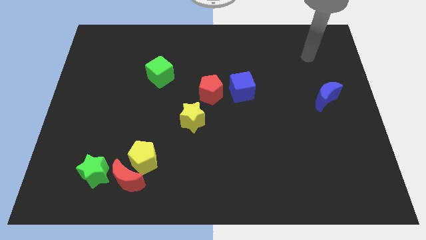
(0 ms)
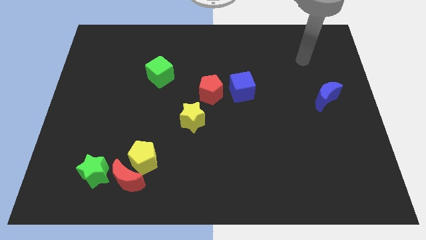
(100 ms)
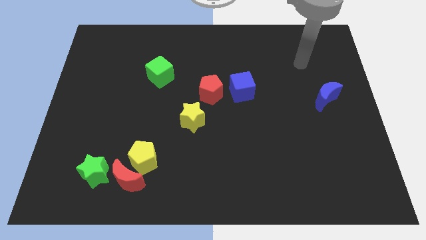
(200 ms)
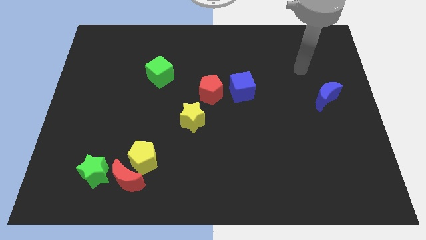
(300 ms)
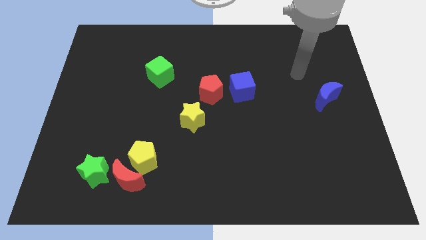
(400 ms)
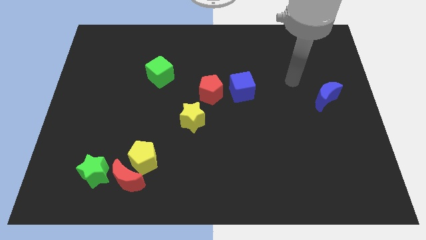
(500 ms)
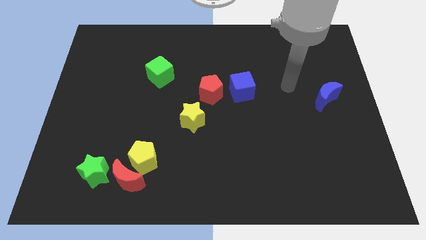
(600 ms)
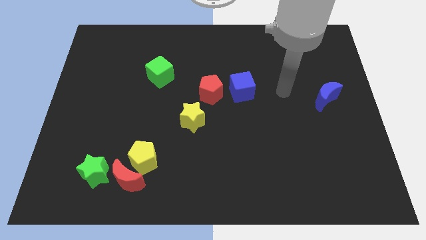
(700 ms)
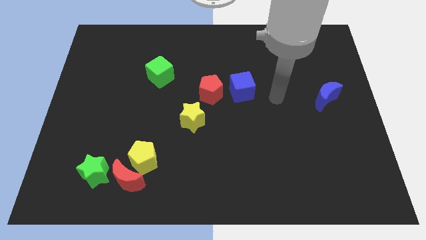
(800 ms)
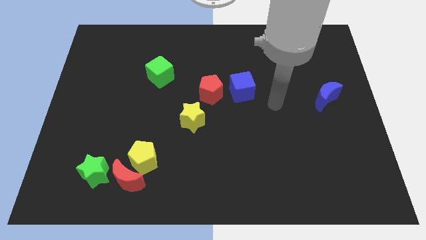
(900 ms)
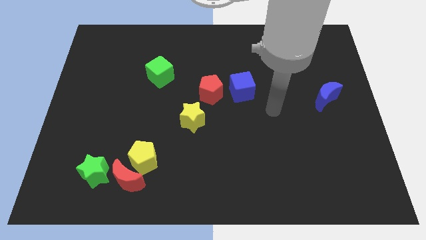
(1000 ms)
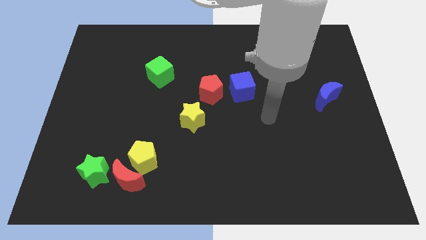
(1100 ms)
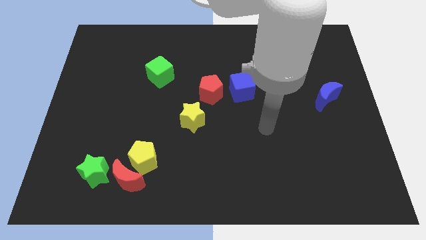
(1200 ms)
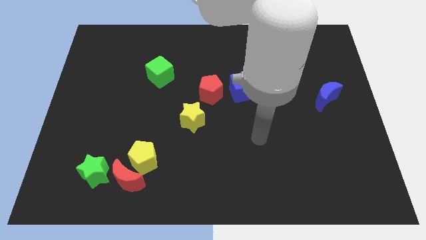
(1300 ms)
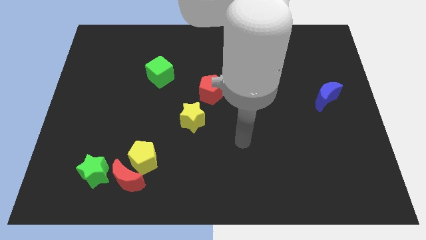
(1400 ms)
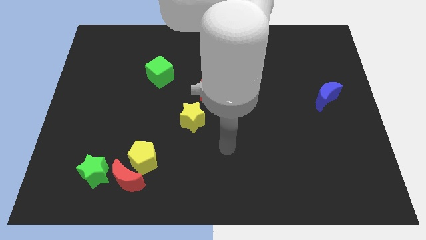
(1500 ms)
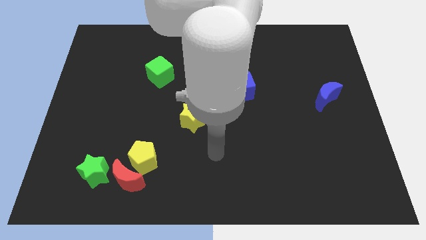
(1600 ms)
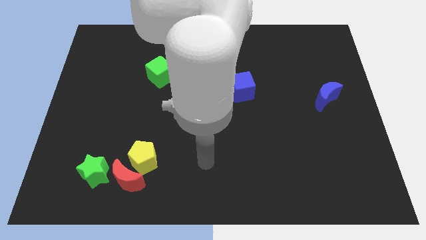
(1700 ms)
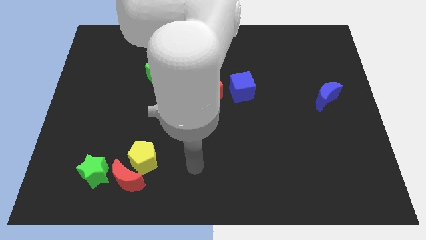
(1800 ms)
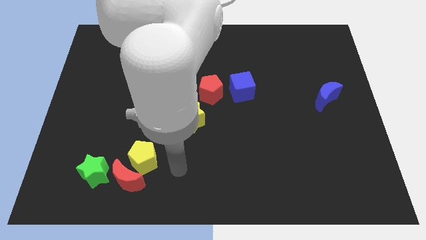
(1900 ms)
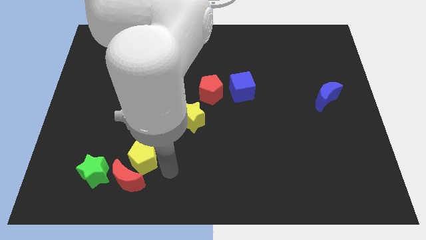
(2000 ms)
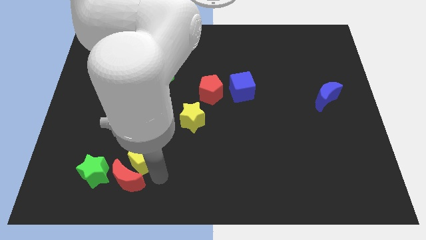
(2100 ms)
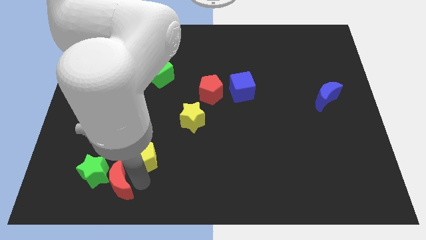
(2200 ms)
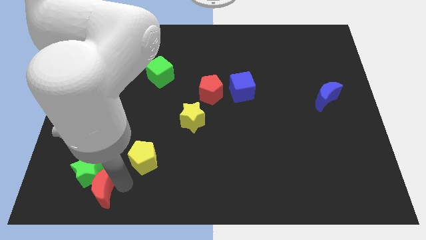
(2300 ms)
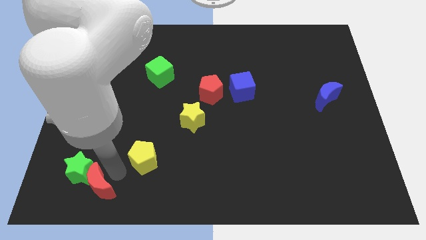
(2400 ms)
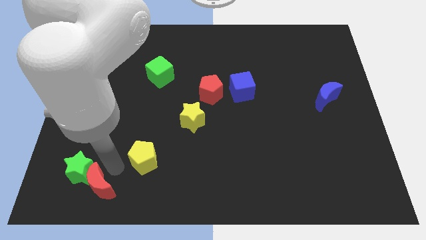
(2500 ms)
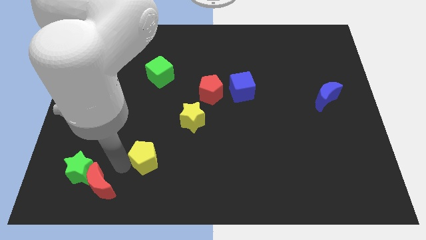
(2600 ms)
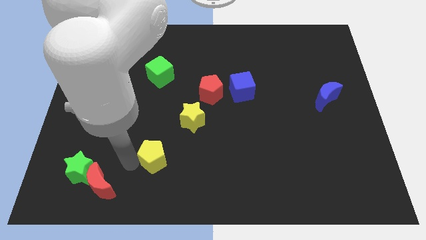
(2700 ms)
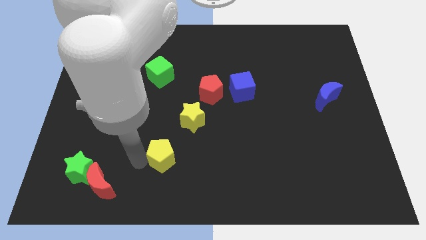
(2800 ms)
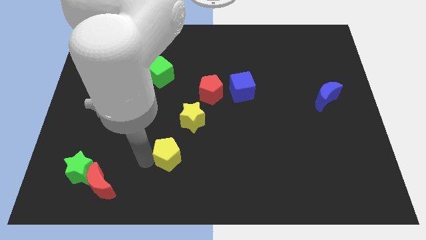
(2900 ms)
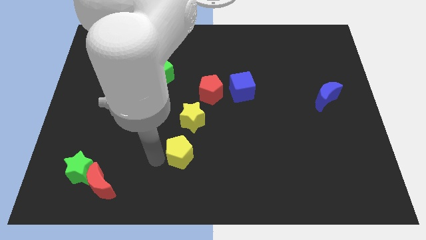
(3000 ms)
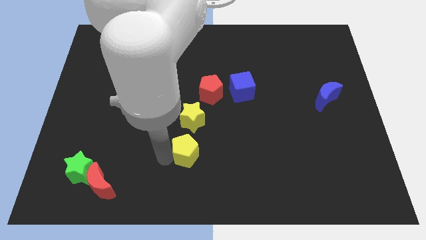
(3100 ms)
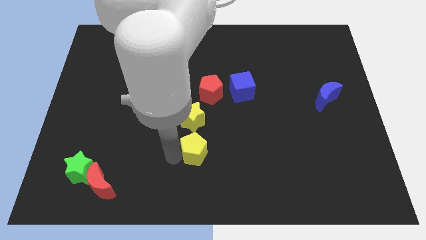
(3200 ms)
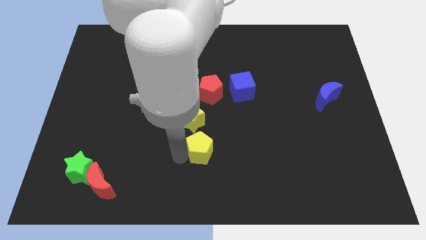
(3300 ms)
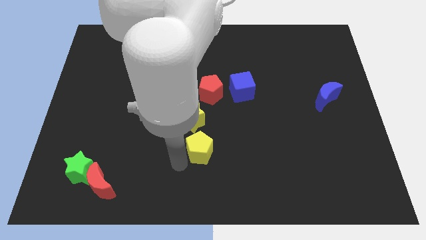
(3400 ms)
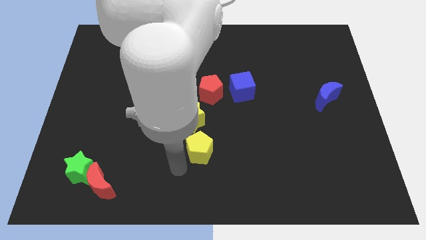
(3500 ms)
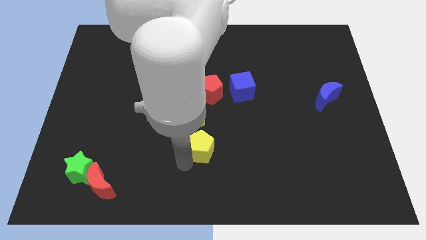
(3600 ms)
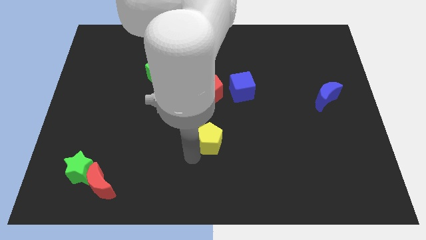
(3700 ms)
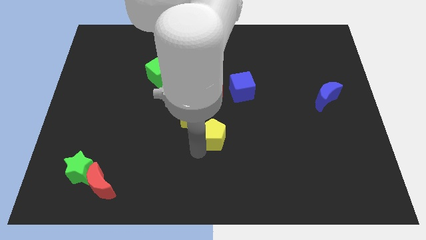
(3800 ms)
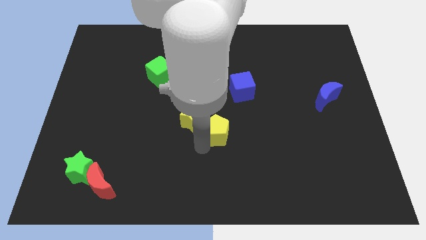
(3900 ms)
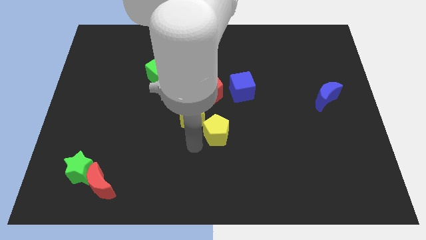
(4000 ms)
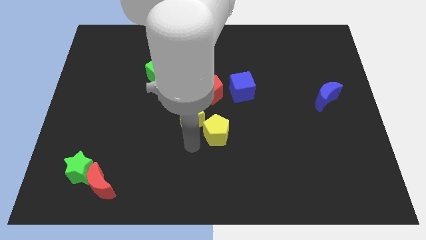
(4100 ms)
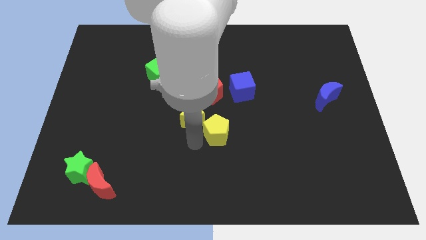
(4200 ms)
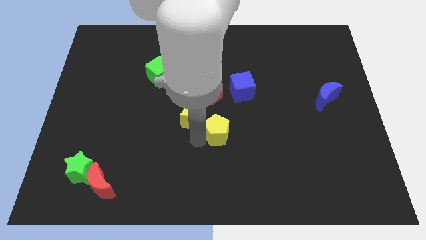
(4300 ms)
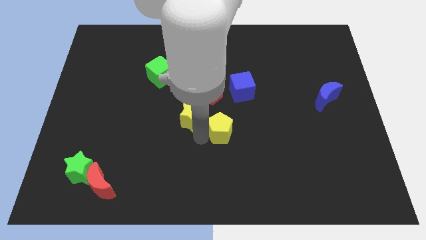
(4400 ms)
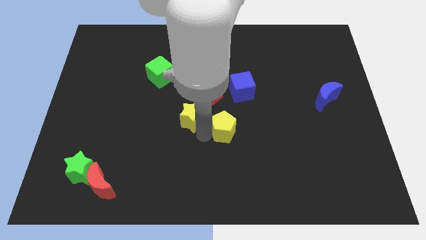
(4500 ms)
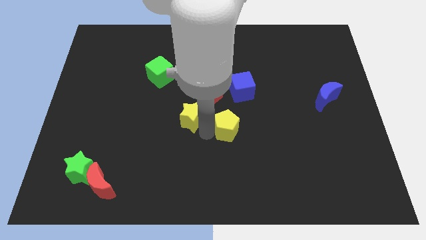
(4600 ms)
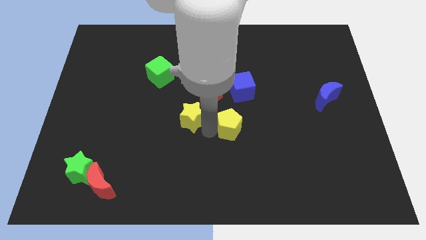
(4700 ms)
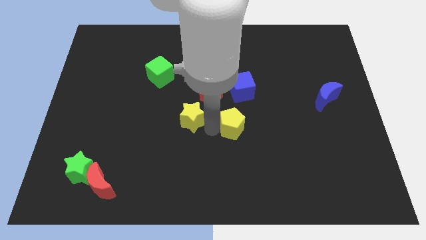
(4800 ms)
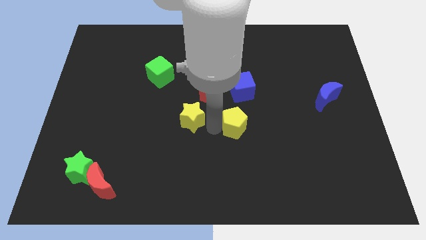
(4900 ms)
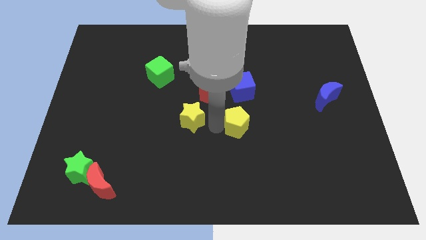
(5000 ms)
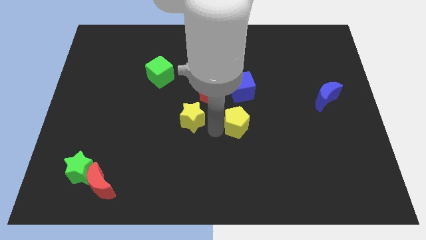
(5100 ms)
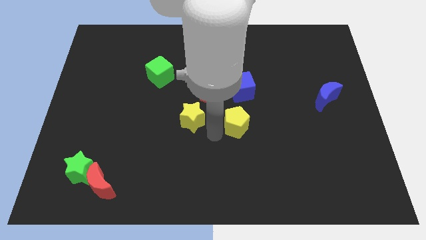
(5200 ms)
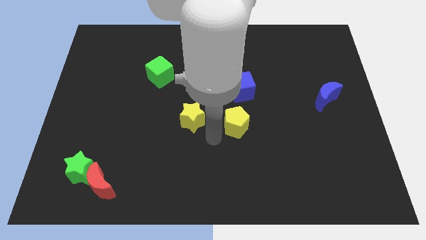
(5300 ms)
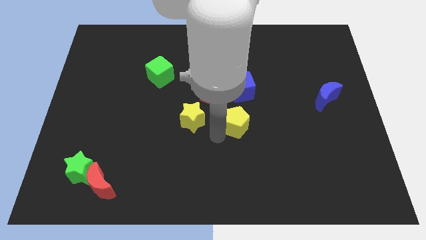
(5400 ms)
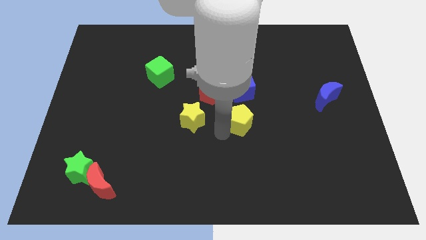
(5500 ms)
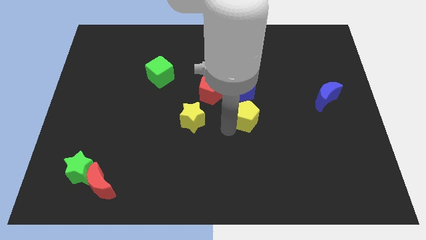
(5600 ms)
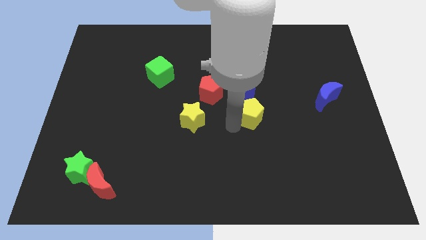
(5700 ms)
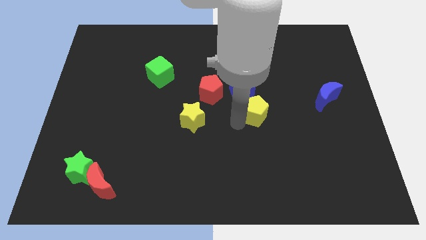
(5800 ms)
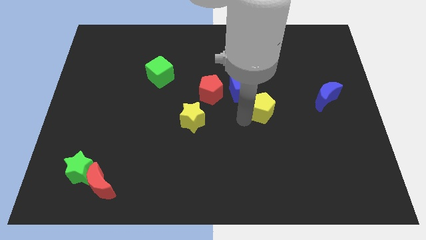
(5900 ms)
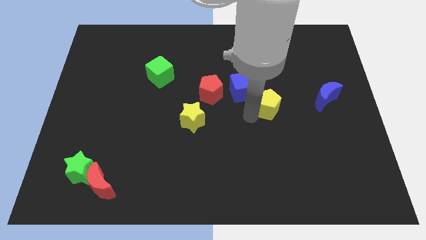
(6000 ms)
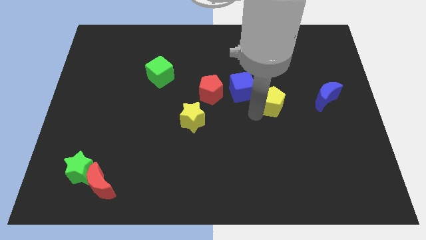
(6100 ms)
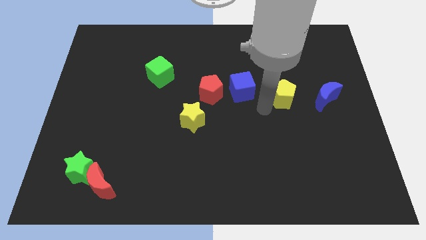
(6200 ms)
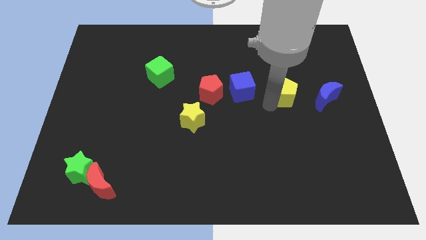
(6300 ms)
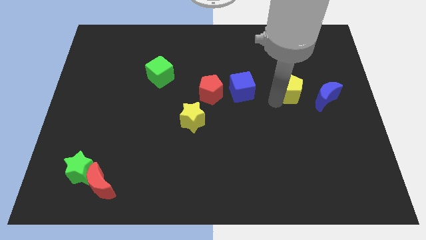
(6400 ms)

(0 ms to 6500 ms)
slide the yellow pentagon to the top left side of the blue moon

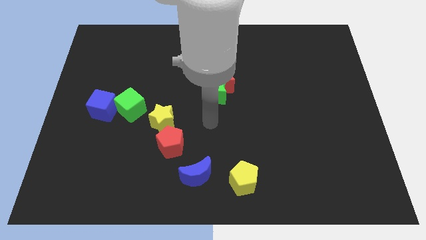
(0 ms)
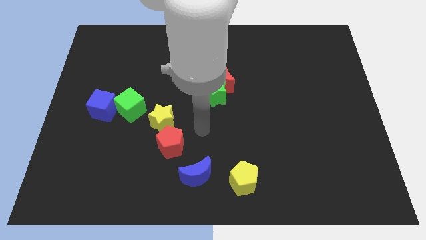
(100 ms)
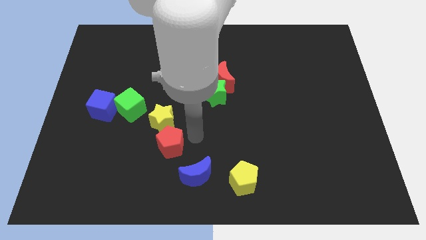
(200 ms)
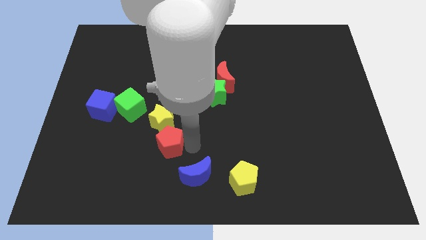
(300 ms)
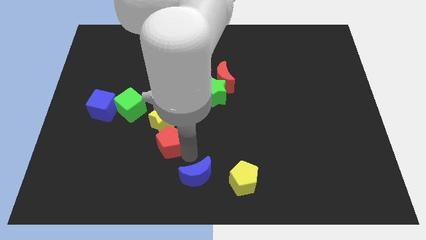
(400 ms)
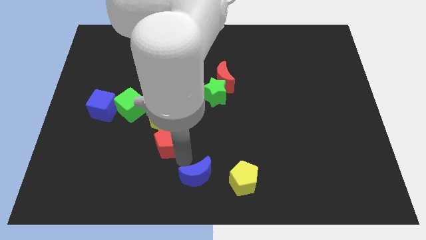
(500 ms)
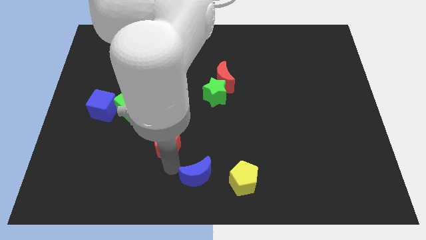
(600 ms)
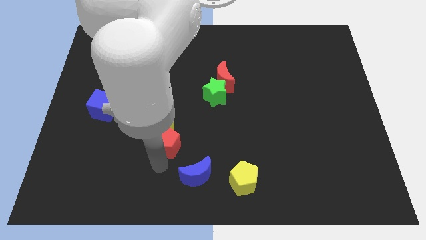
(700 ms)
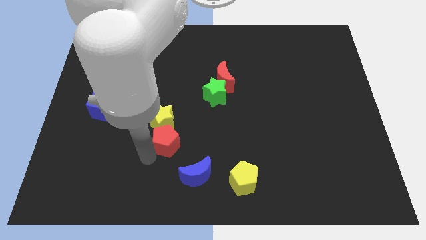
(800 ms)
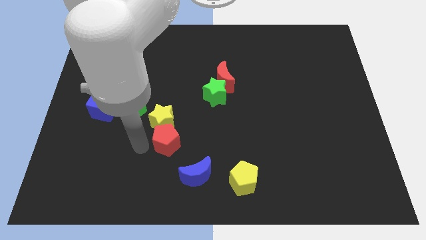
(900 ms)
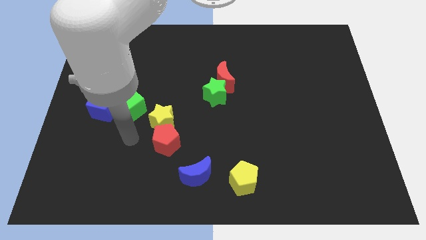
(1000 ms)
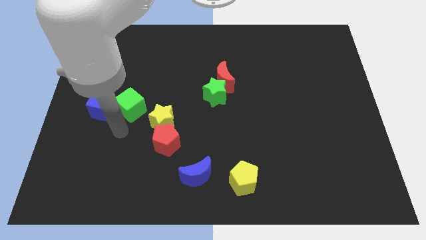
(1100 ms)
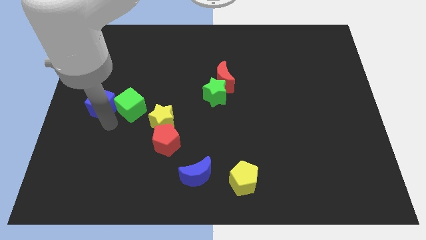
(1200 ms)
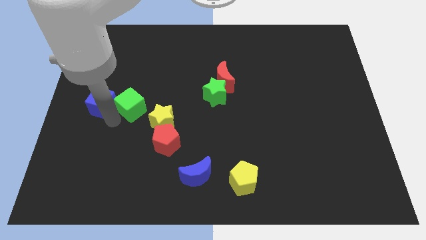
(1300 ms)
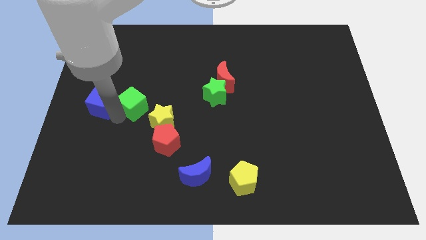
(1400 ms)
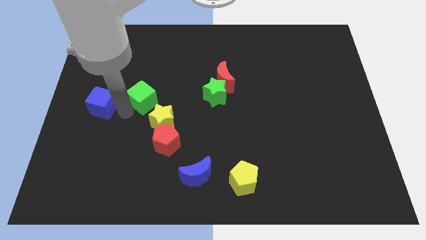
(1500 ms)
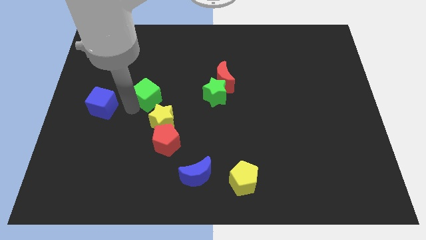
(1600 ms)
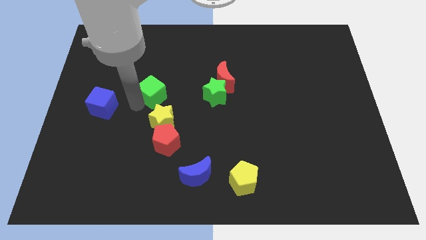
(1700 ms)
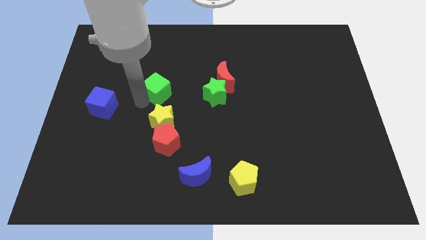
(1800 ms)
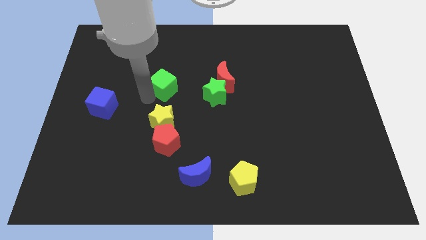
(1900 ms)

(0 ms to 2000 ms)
push the green cube to the left side of the red moon
